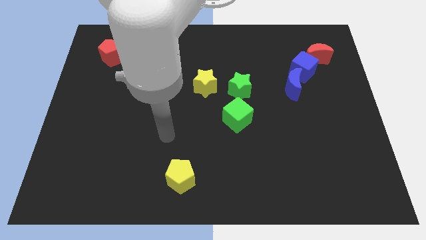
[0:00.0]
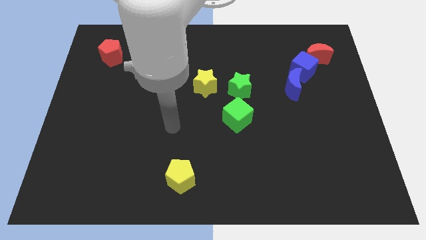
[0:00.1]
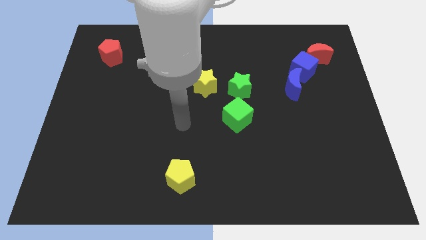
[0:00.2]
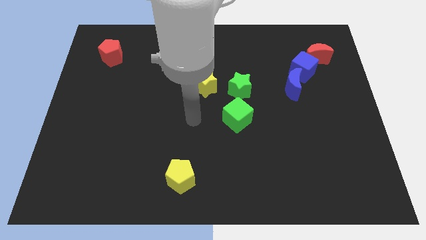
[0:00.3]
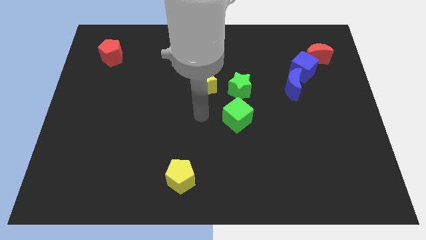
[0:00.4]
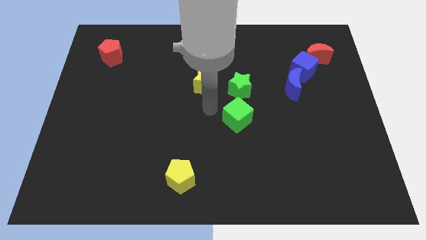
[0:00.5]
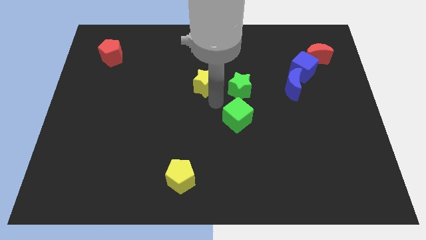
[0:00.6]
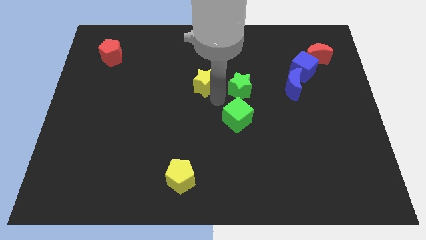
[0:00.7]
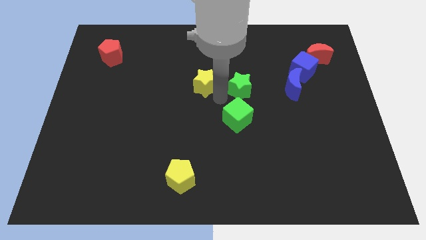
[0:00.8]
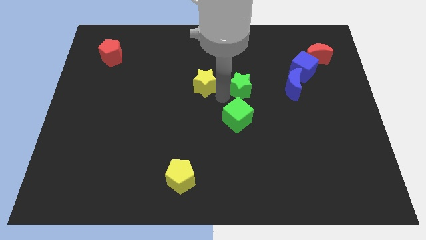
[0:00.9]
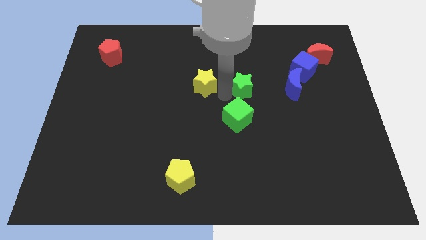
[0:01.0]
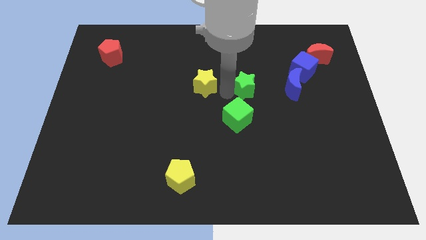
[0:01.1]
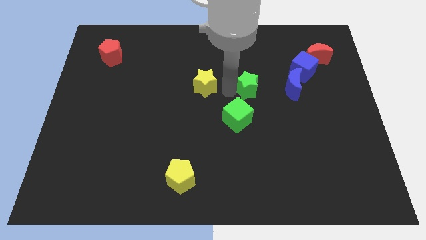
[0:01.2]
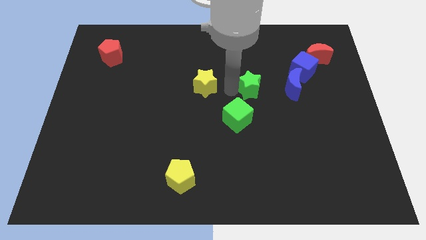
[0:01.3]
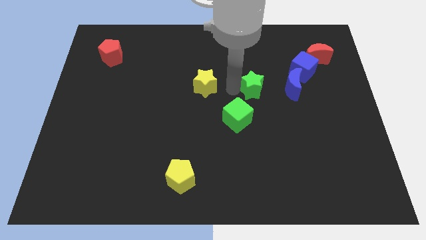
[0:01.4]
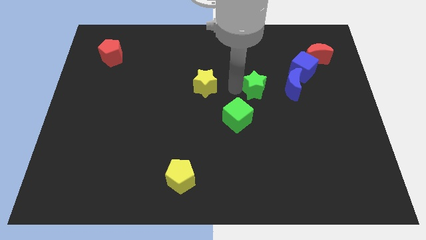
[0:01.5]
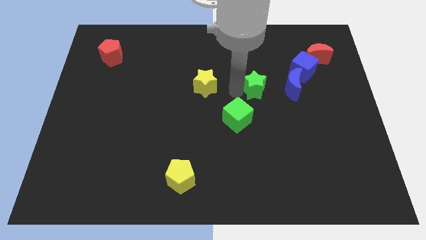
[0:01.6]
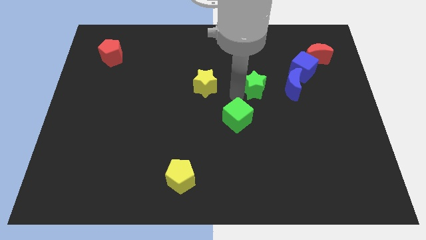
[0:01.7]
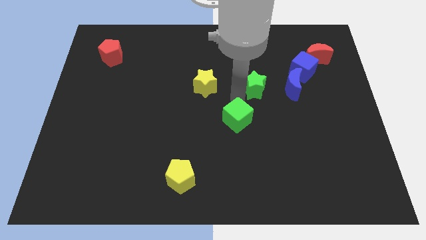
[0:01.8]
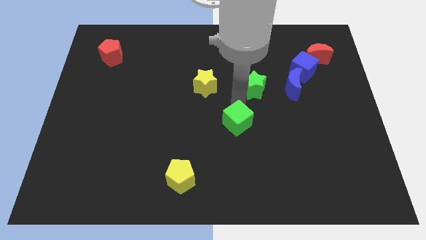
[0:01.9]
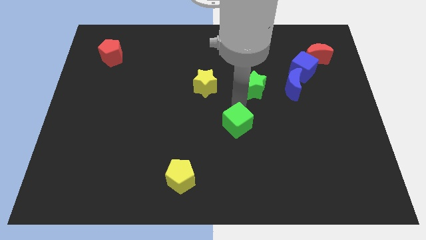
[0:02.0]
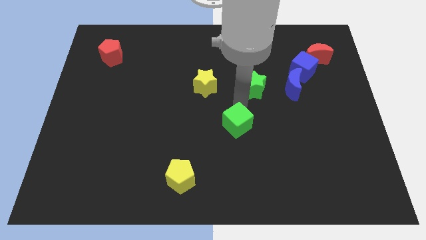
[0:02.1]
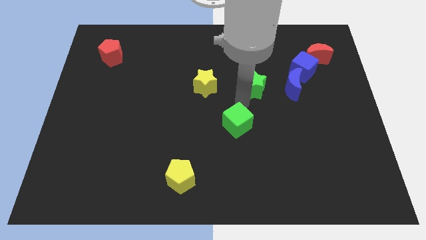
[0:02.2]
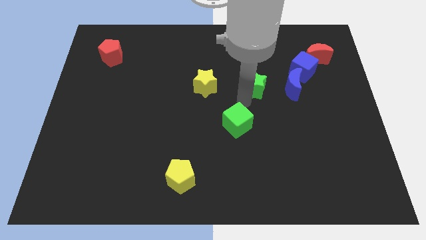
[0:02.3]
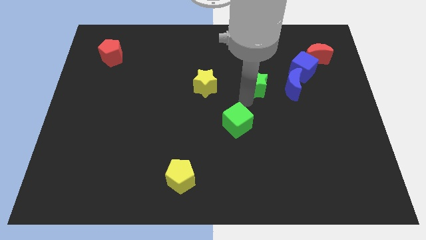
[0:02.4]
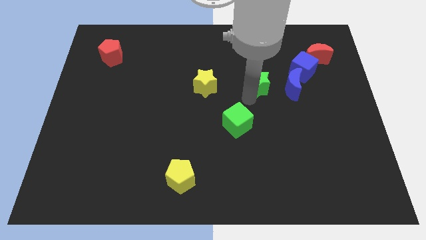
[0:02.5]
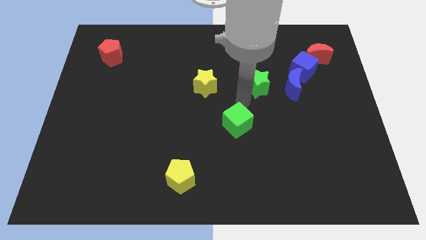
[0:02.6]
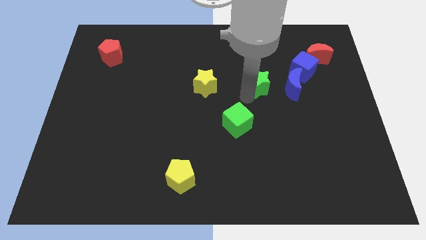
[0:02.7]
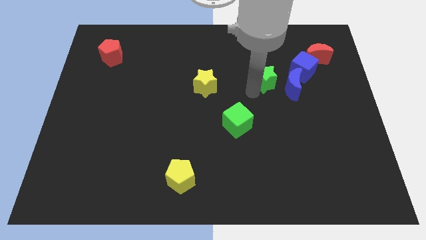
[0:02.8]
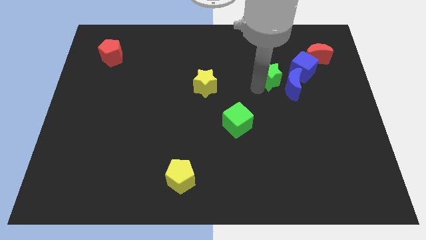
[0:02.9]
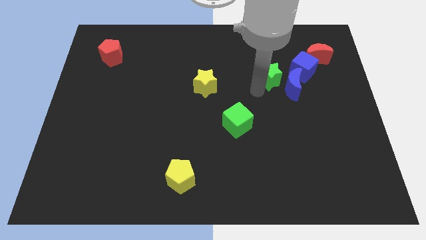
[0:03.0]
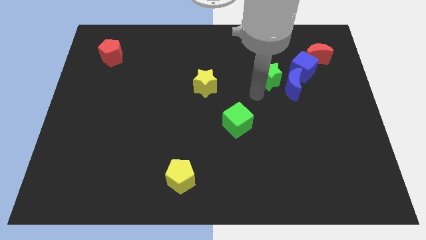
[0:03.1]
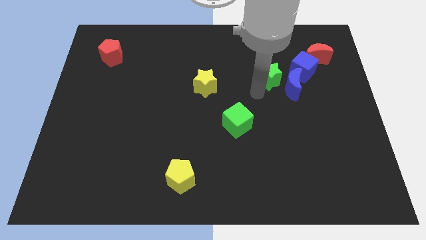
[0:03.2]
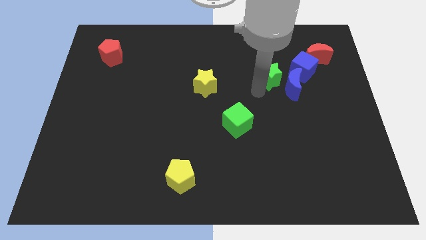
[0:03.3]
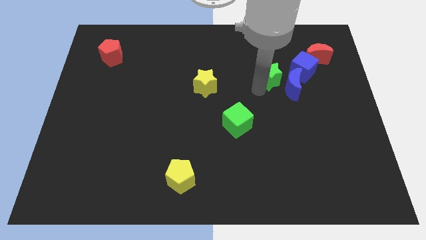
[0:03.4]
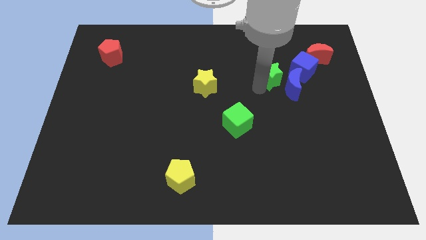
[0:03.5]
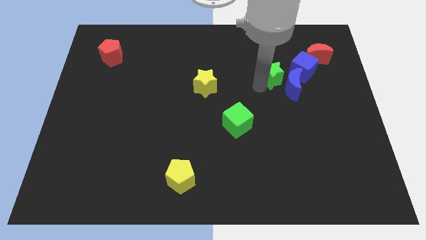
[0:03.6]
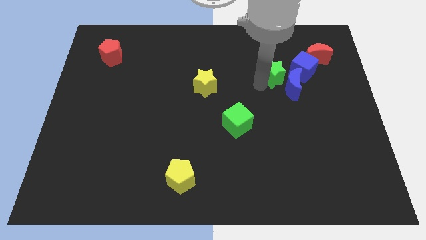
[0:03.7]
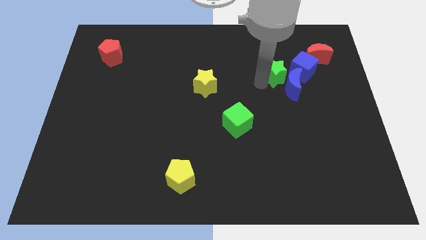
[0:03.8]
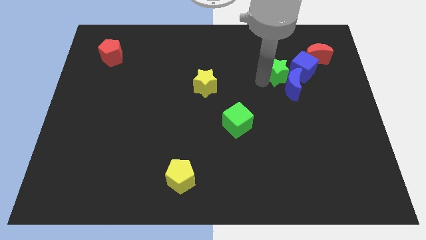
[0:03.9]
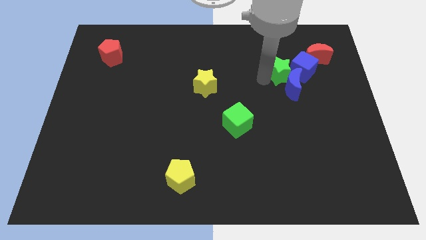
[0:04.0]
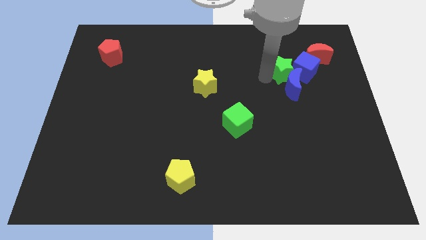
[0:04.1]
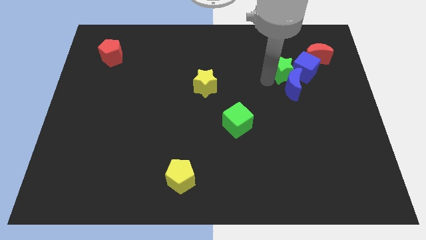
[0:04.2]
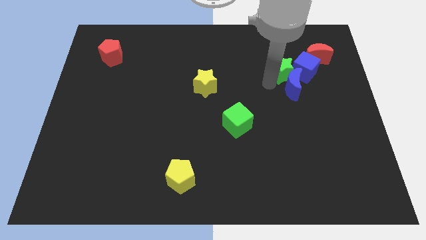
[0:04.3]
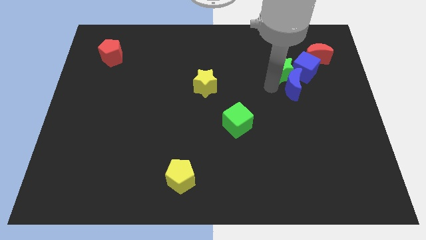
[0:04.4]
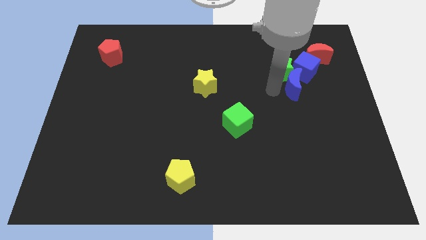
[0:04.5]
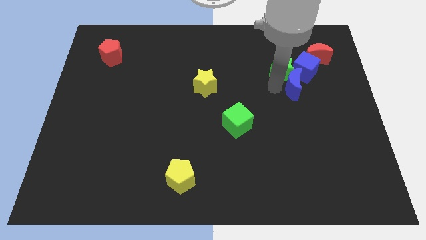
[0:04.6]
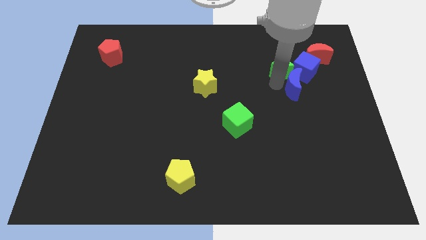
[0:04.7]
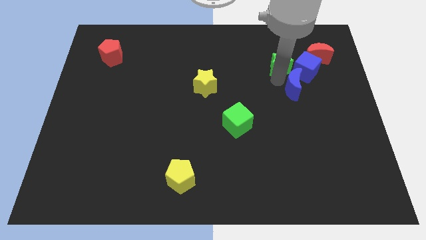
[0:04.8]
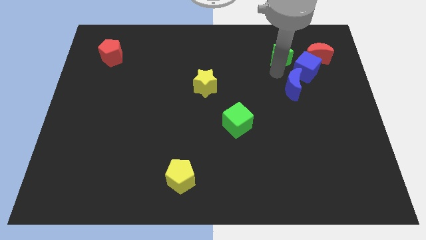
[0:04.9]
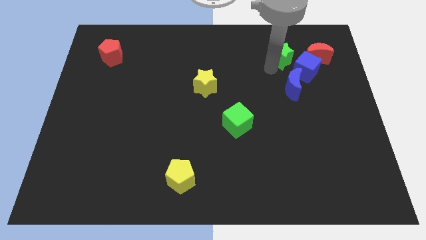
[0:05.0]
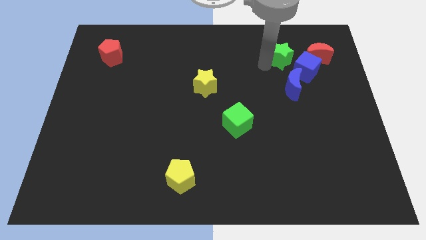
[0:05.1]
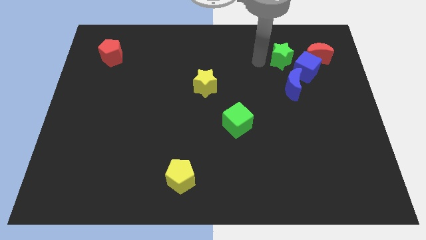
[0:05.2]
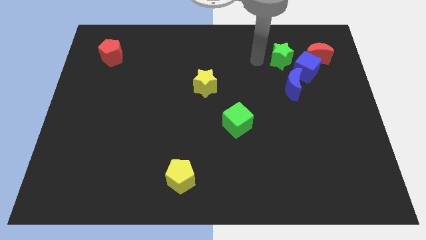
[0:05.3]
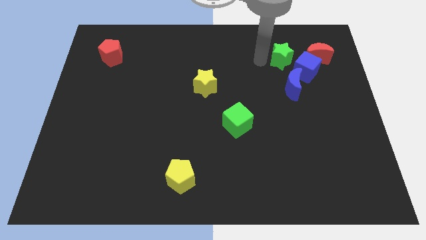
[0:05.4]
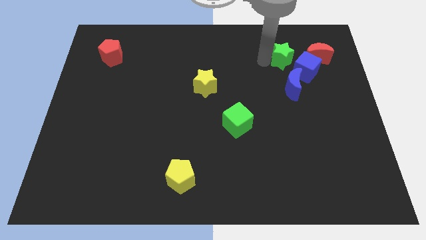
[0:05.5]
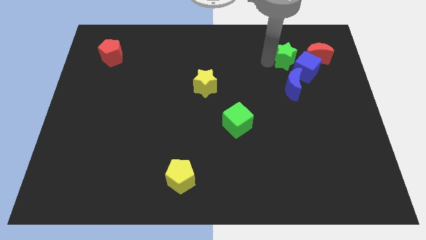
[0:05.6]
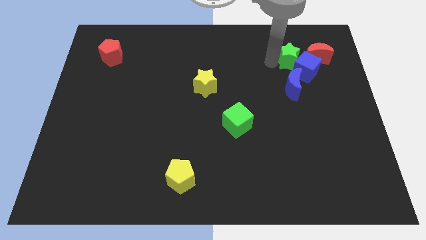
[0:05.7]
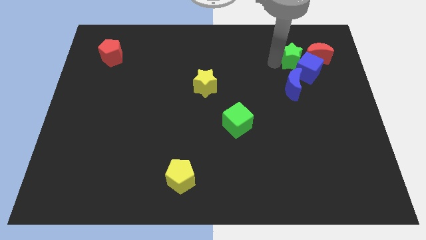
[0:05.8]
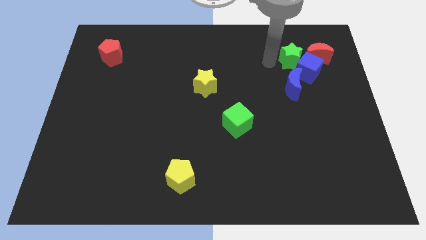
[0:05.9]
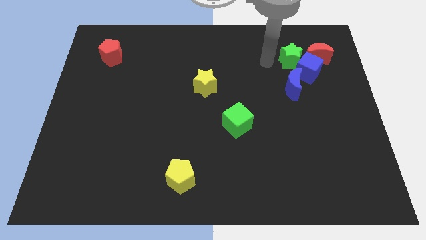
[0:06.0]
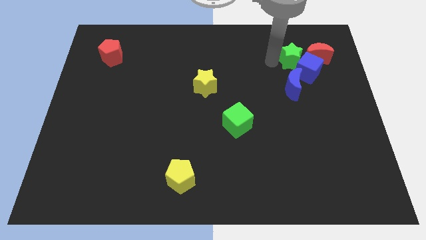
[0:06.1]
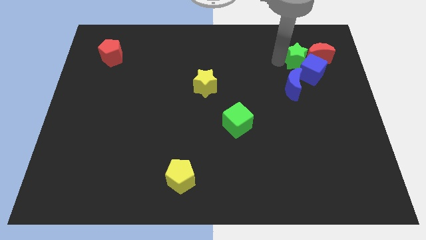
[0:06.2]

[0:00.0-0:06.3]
move the green star towards the red moon
